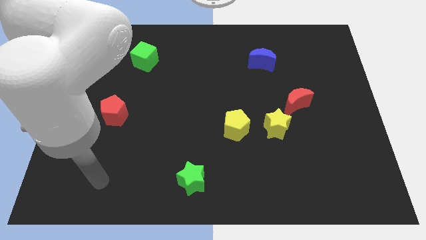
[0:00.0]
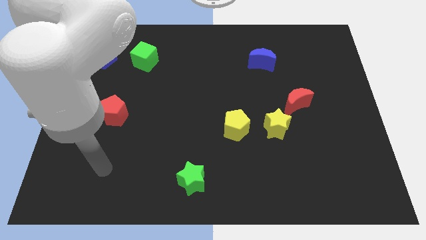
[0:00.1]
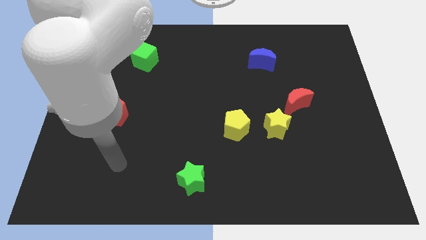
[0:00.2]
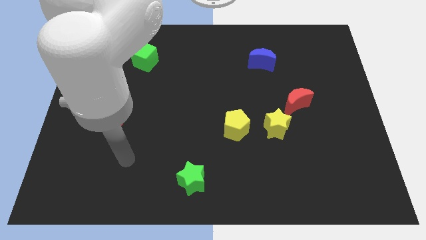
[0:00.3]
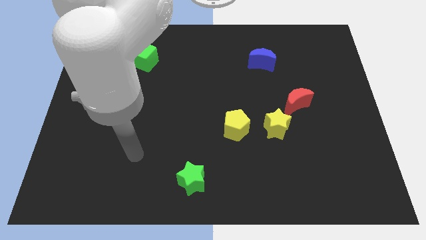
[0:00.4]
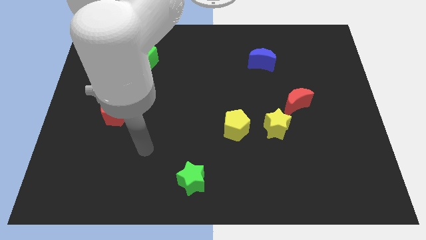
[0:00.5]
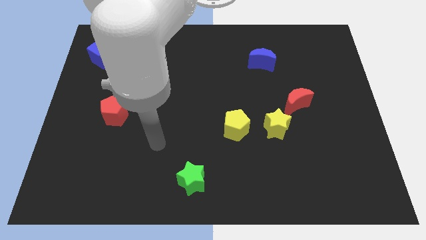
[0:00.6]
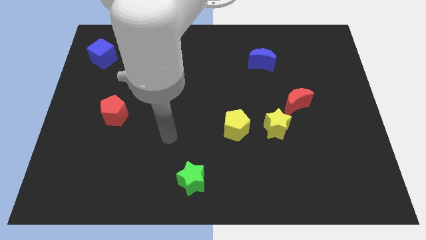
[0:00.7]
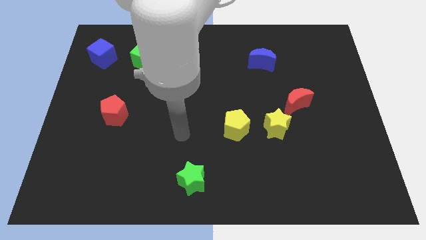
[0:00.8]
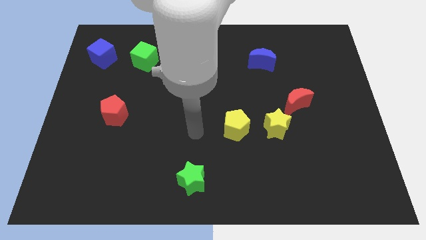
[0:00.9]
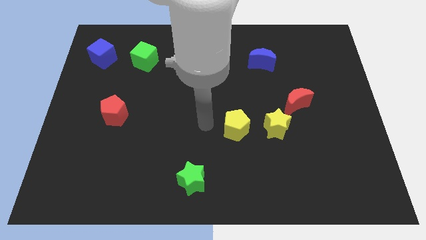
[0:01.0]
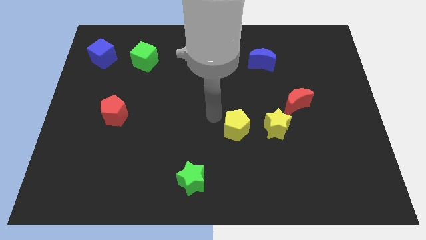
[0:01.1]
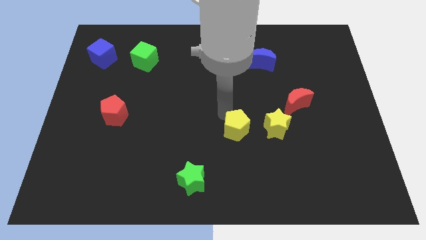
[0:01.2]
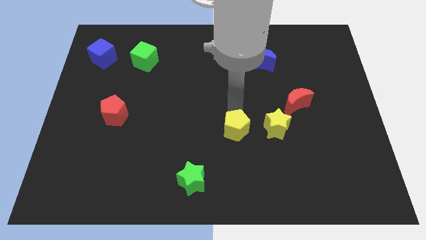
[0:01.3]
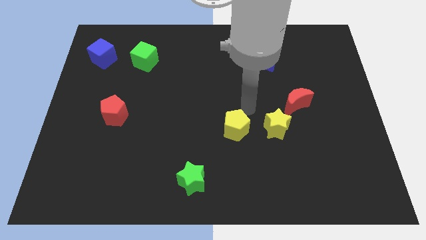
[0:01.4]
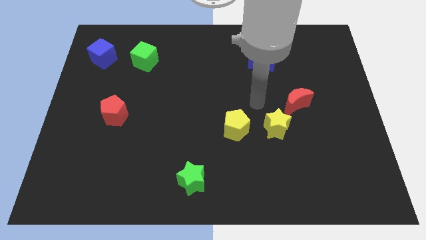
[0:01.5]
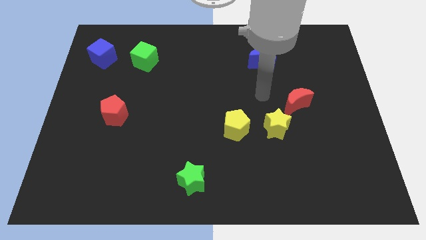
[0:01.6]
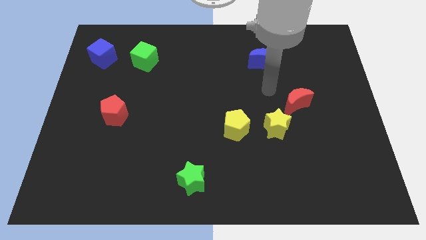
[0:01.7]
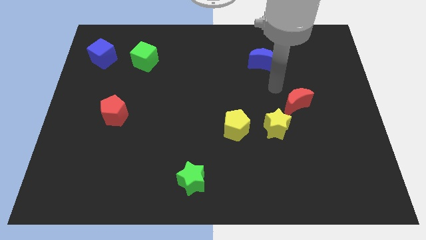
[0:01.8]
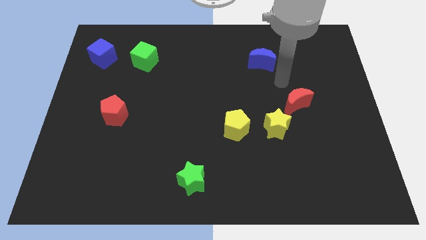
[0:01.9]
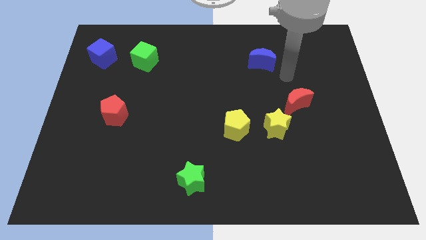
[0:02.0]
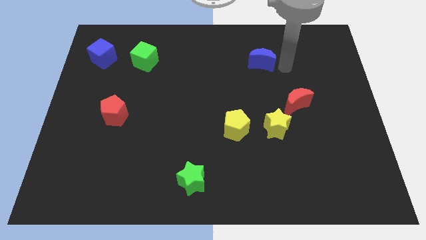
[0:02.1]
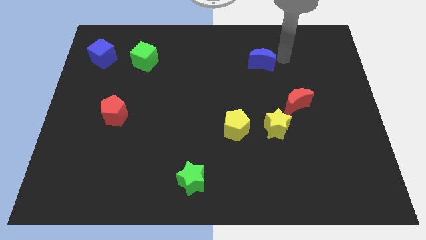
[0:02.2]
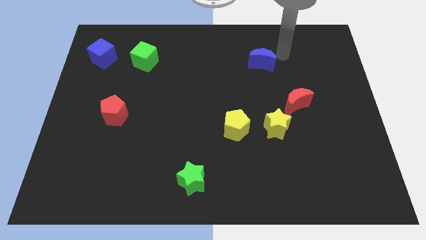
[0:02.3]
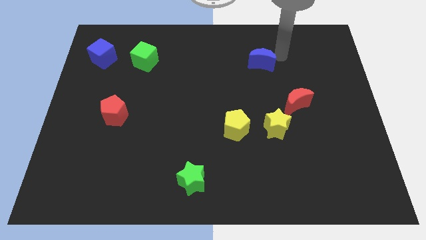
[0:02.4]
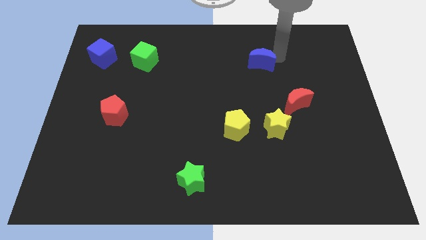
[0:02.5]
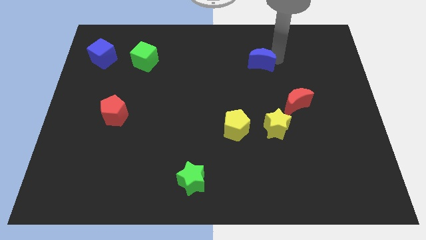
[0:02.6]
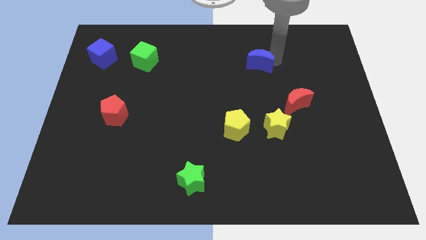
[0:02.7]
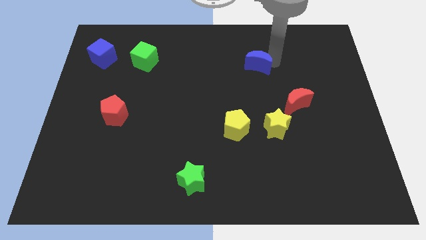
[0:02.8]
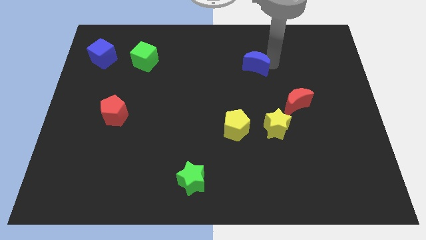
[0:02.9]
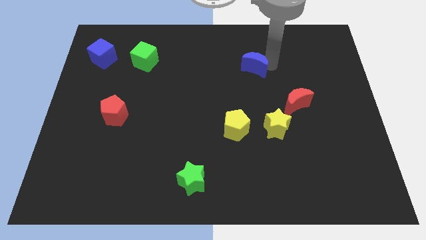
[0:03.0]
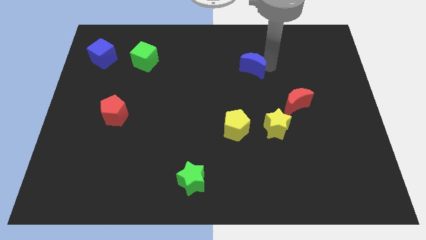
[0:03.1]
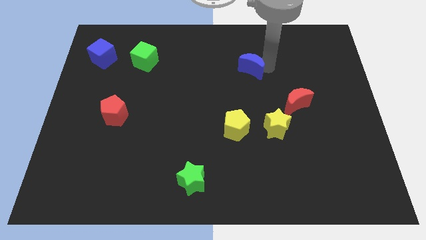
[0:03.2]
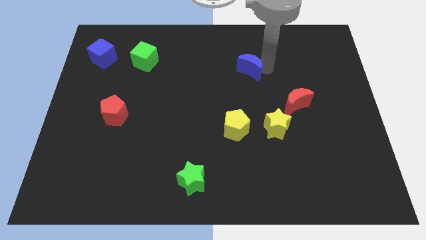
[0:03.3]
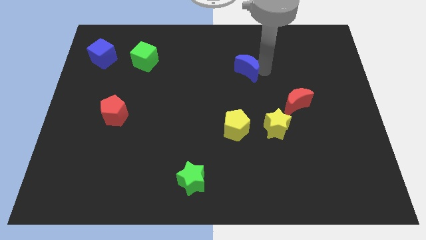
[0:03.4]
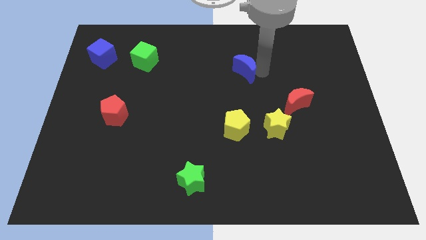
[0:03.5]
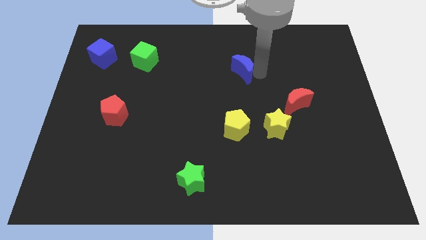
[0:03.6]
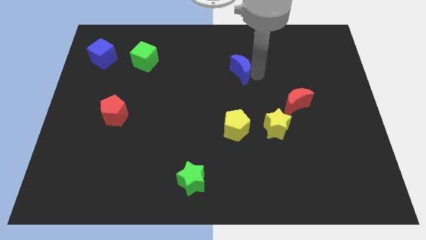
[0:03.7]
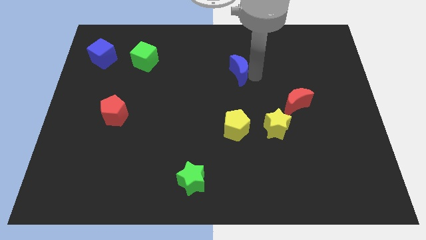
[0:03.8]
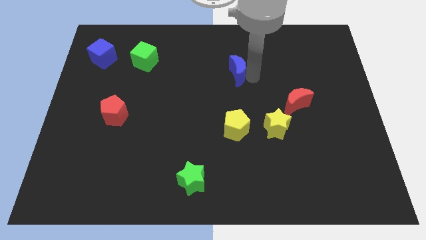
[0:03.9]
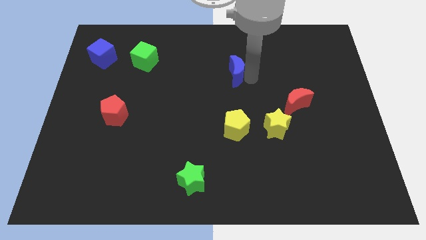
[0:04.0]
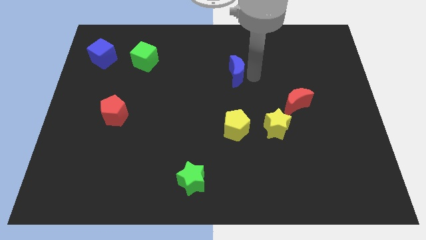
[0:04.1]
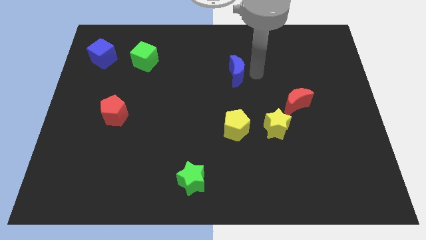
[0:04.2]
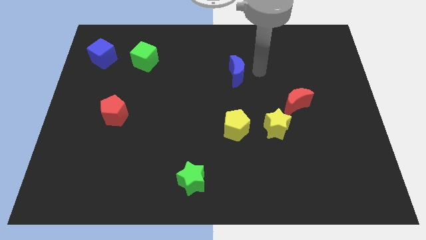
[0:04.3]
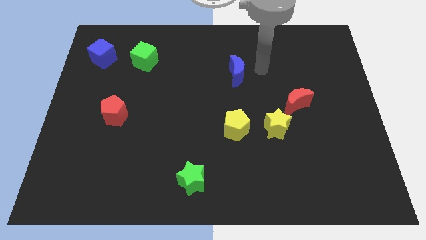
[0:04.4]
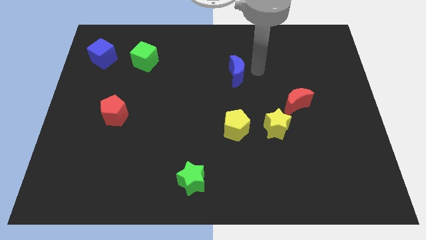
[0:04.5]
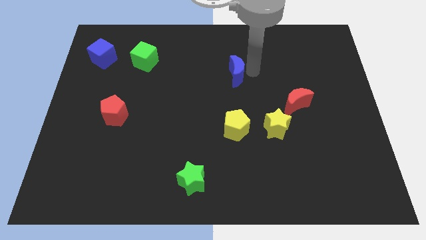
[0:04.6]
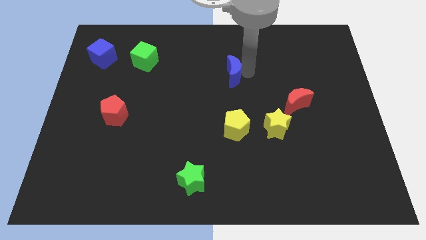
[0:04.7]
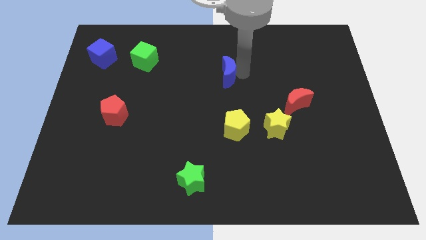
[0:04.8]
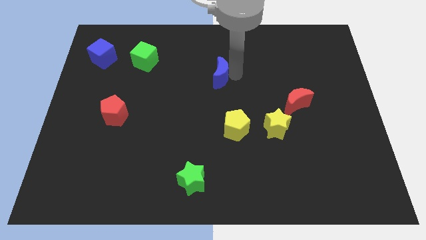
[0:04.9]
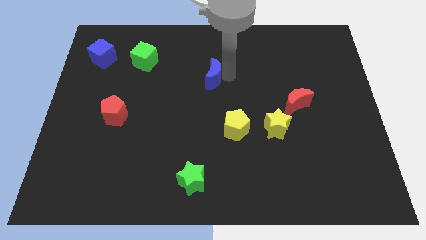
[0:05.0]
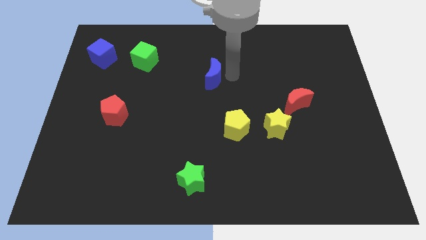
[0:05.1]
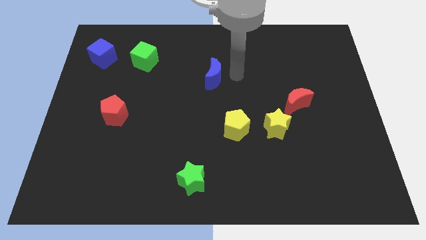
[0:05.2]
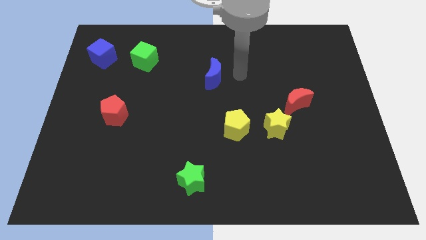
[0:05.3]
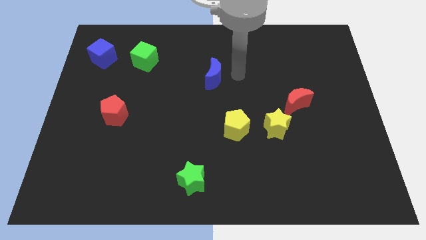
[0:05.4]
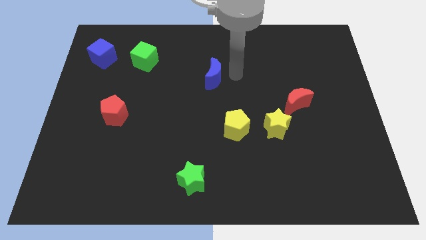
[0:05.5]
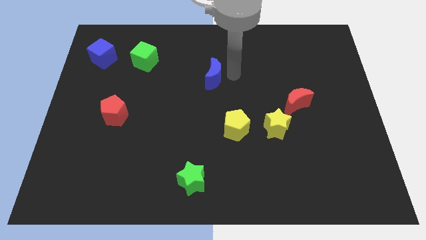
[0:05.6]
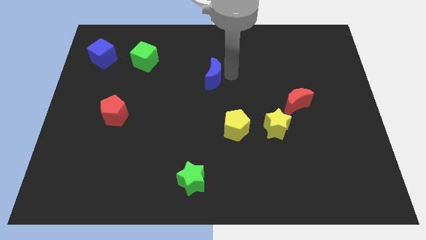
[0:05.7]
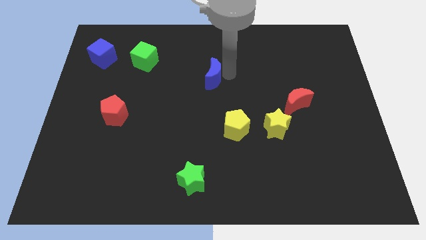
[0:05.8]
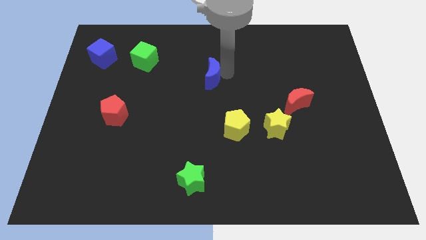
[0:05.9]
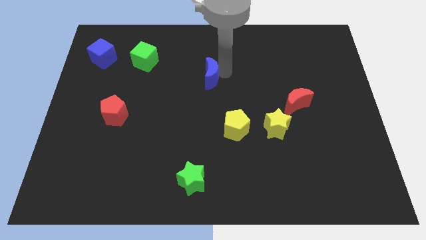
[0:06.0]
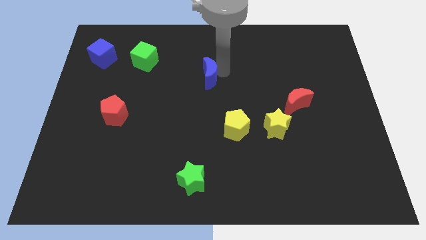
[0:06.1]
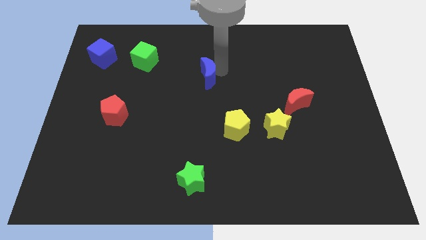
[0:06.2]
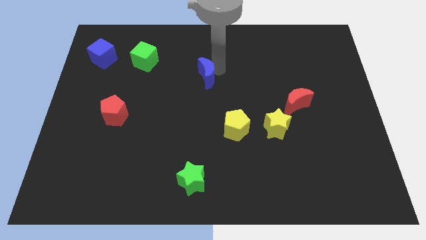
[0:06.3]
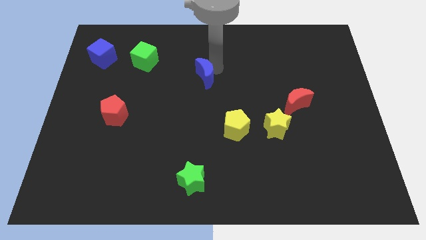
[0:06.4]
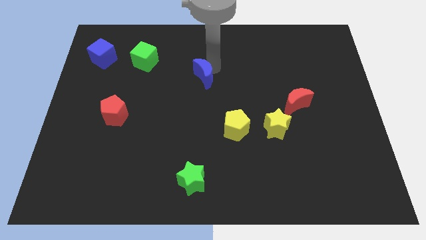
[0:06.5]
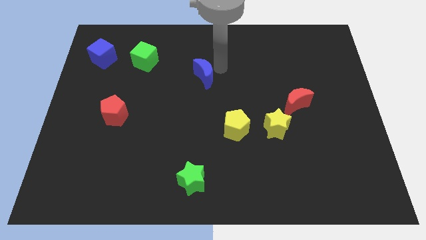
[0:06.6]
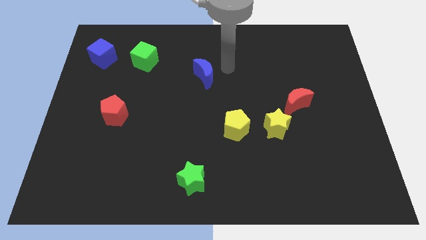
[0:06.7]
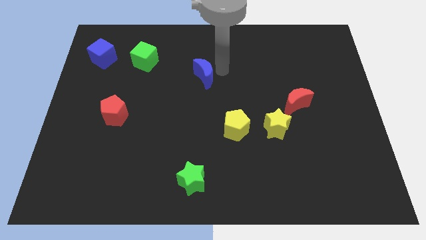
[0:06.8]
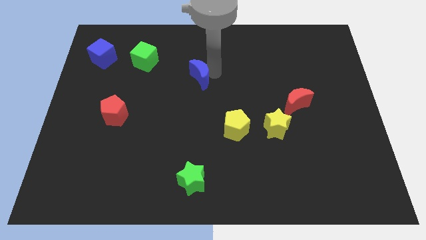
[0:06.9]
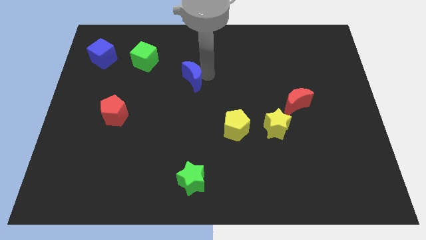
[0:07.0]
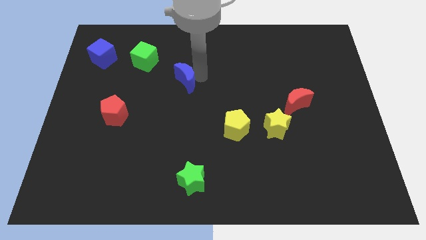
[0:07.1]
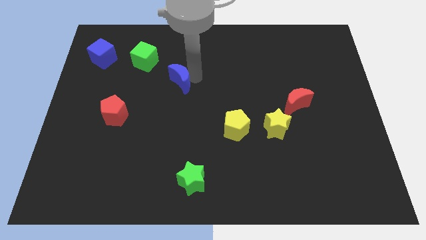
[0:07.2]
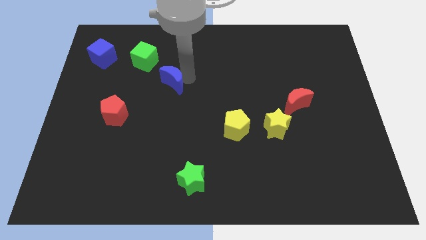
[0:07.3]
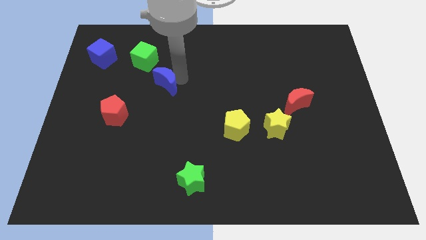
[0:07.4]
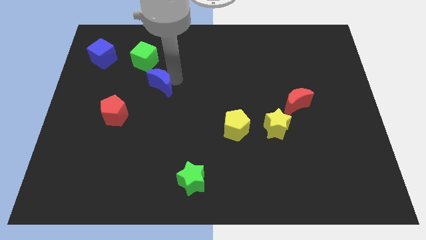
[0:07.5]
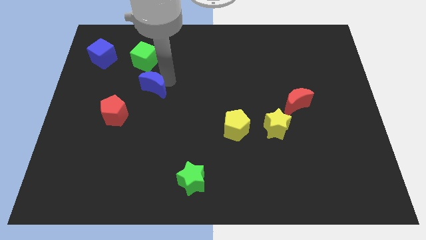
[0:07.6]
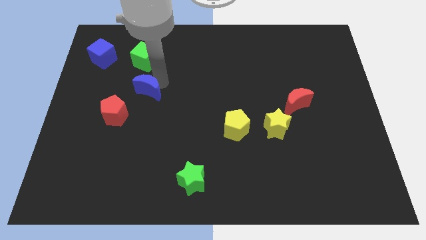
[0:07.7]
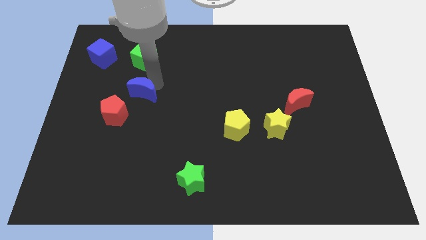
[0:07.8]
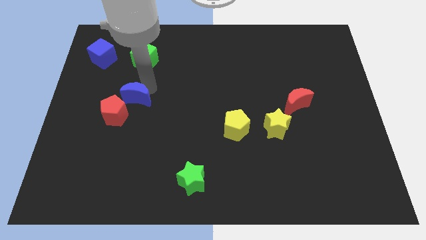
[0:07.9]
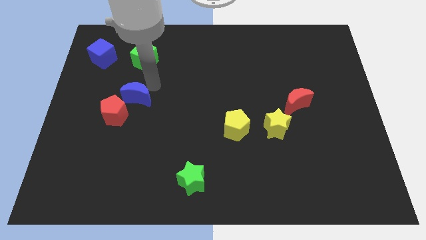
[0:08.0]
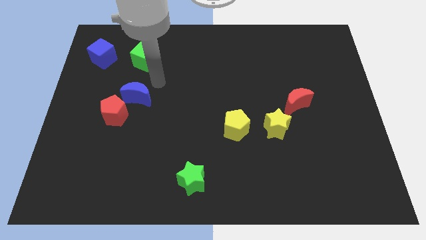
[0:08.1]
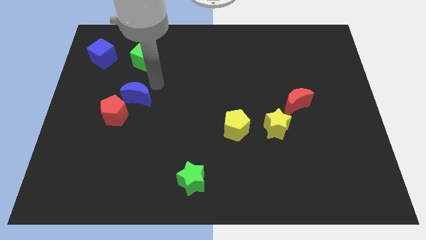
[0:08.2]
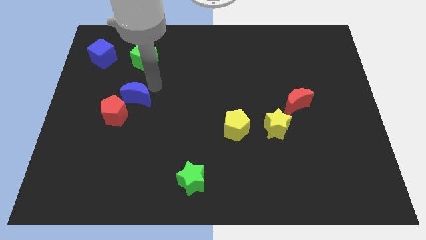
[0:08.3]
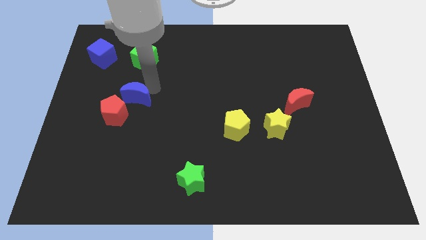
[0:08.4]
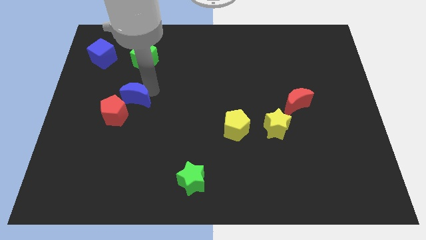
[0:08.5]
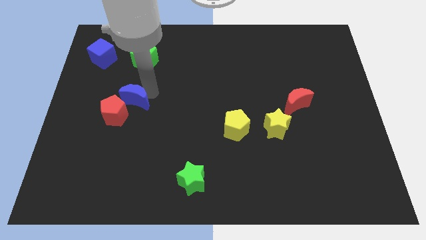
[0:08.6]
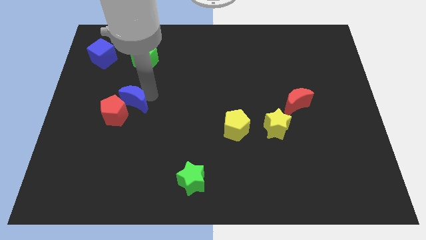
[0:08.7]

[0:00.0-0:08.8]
push the blue moon next to the red pentagon
